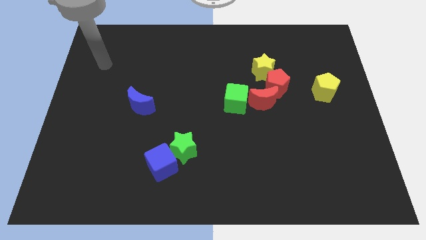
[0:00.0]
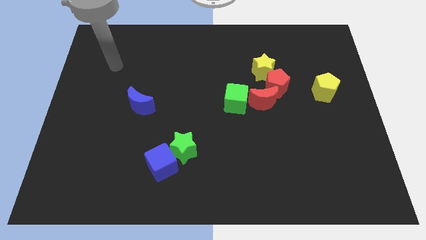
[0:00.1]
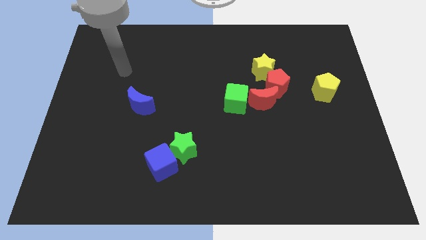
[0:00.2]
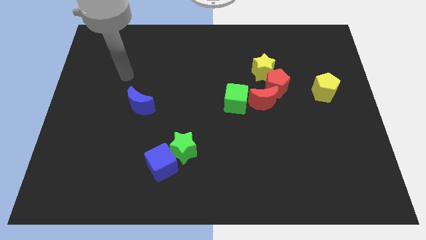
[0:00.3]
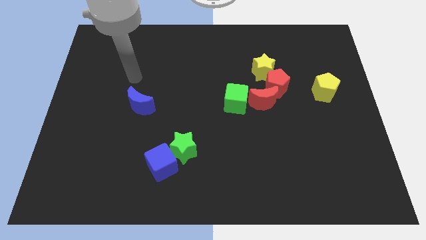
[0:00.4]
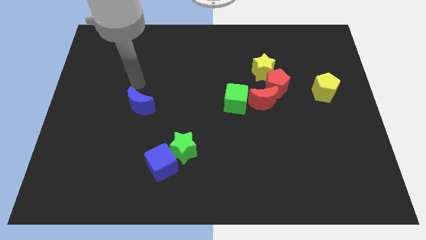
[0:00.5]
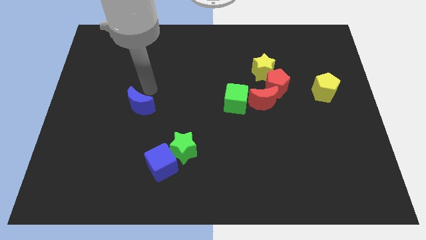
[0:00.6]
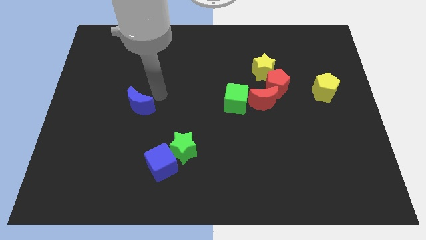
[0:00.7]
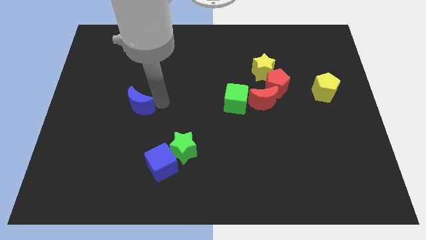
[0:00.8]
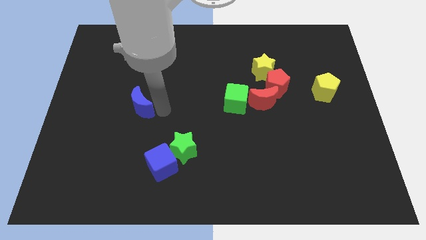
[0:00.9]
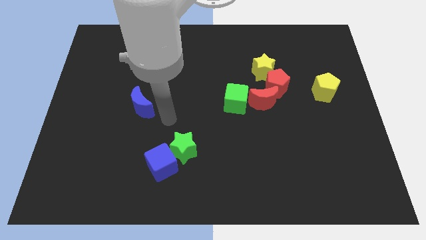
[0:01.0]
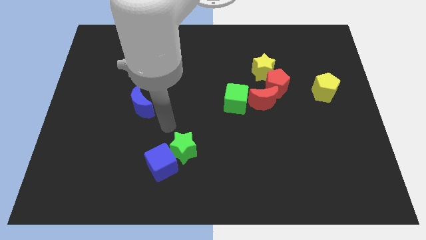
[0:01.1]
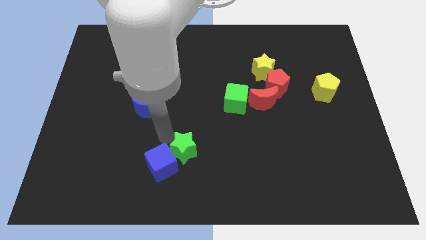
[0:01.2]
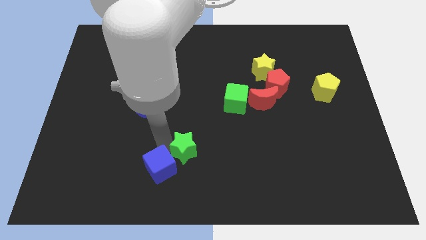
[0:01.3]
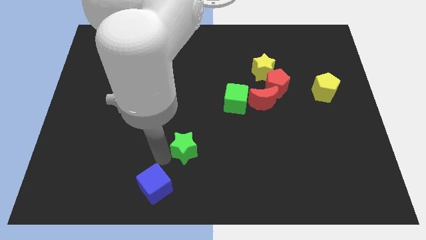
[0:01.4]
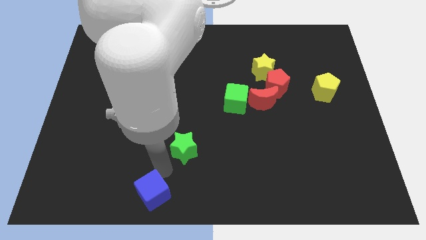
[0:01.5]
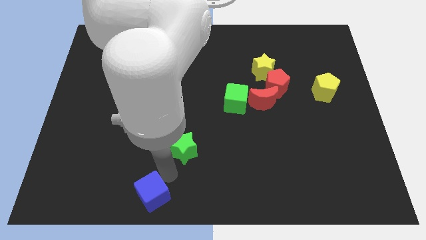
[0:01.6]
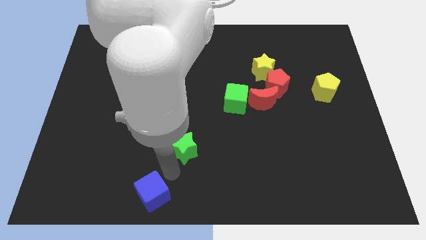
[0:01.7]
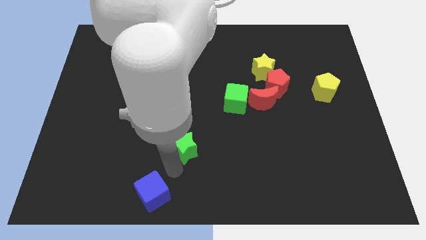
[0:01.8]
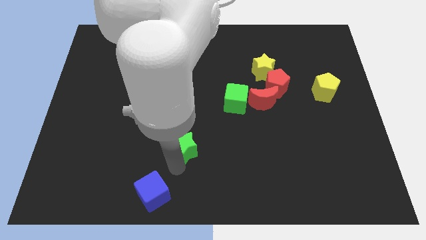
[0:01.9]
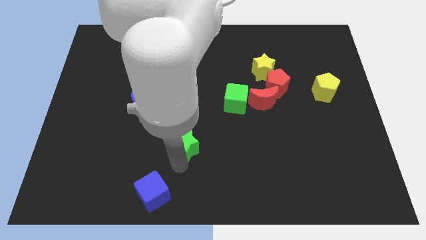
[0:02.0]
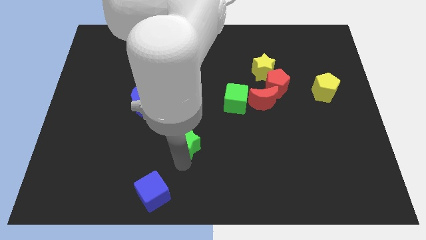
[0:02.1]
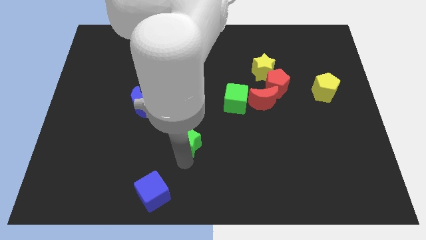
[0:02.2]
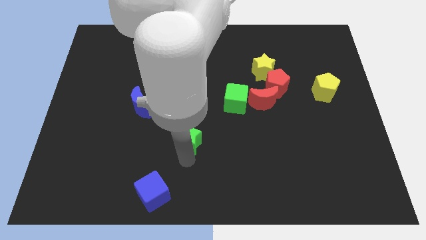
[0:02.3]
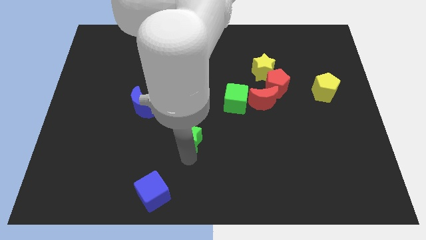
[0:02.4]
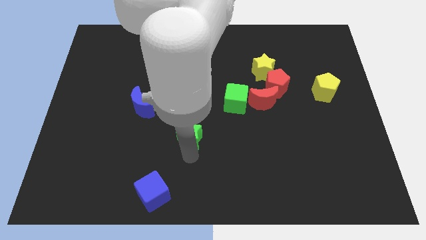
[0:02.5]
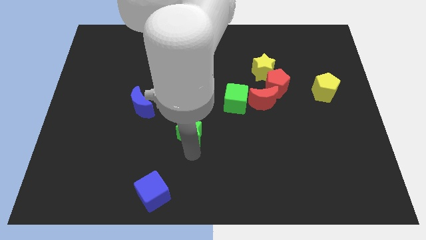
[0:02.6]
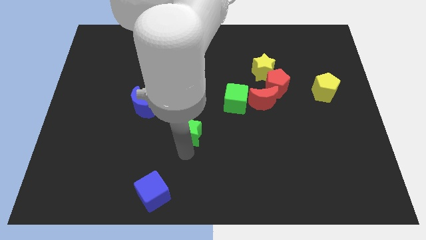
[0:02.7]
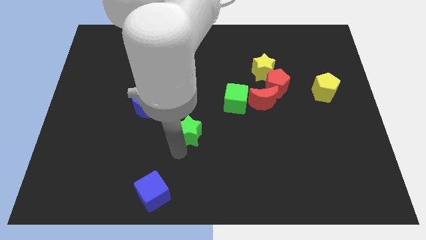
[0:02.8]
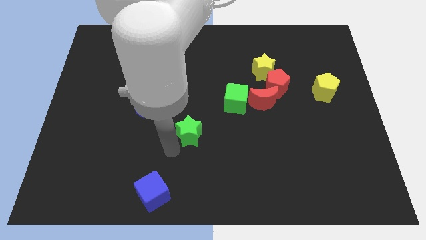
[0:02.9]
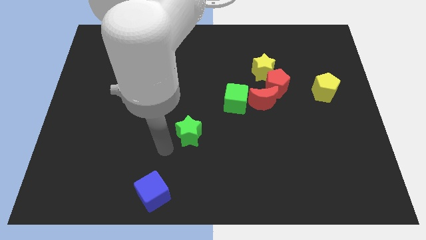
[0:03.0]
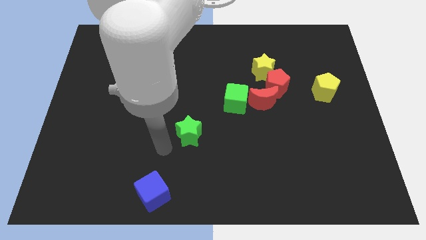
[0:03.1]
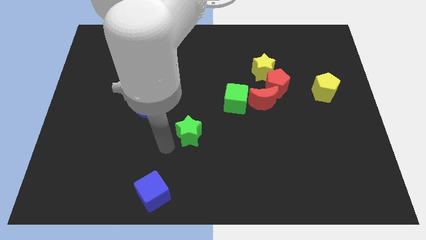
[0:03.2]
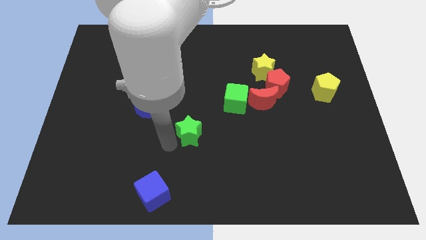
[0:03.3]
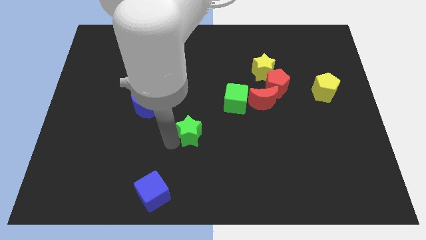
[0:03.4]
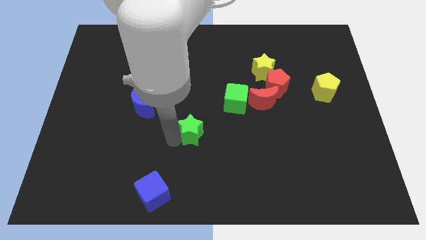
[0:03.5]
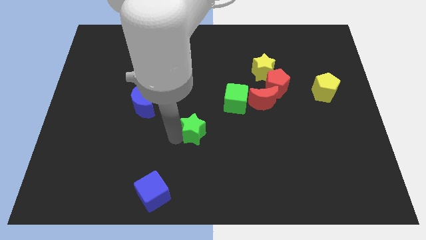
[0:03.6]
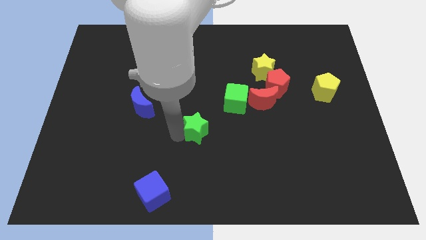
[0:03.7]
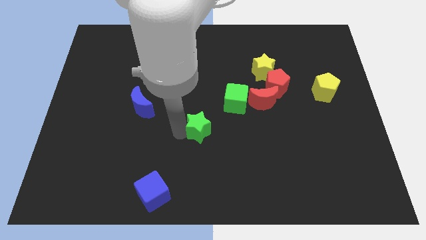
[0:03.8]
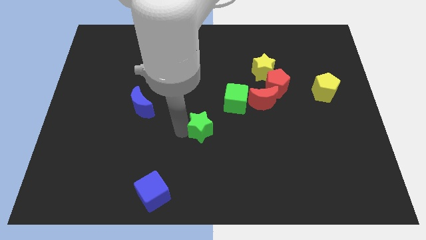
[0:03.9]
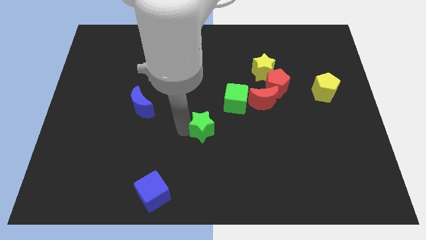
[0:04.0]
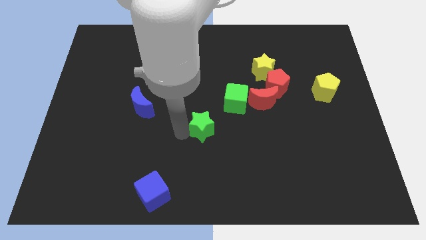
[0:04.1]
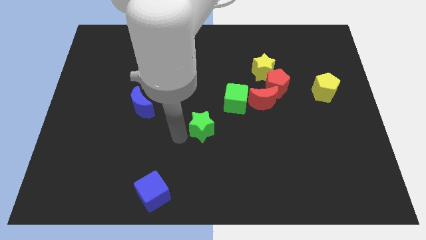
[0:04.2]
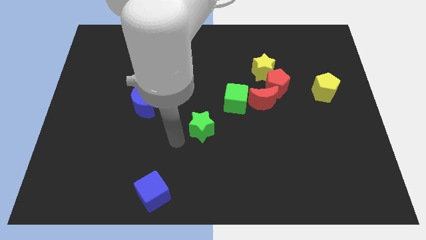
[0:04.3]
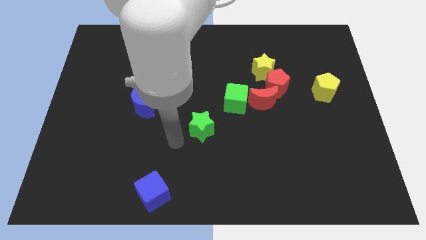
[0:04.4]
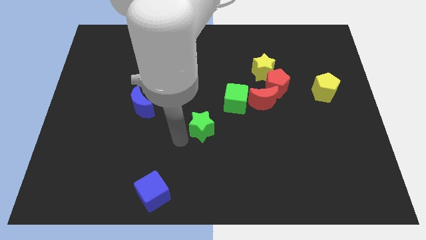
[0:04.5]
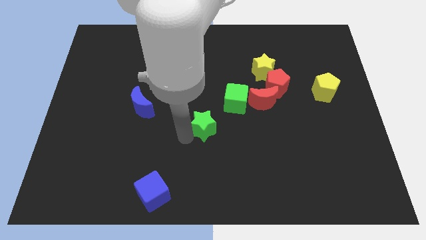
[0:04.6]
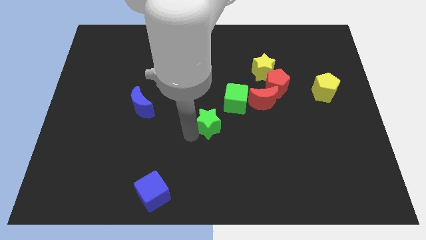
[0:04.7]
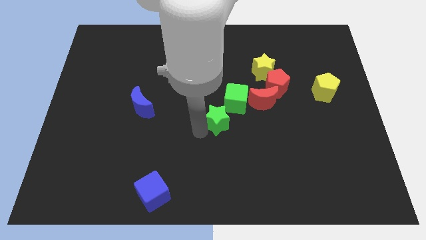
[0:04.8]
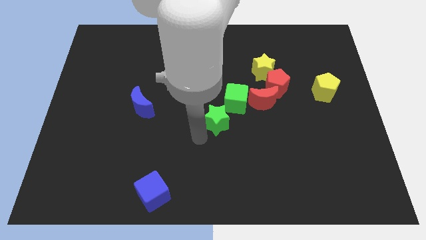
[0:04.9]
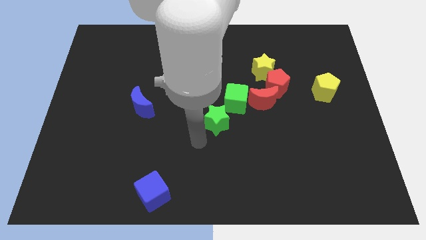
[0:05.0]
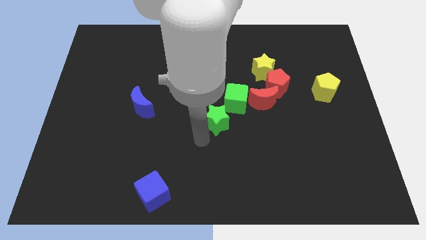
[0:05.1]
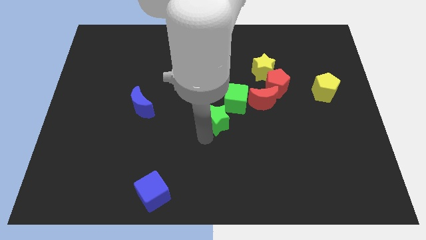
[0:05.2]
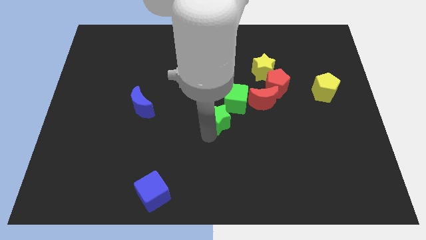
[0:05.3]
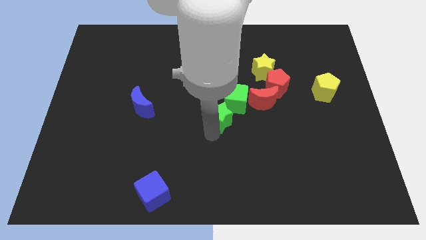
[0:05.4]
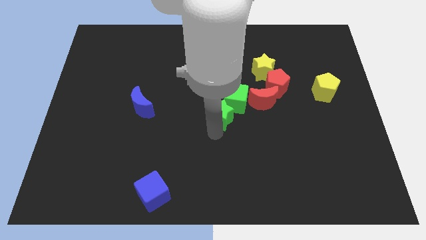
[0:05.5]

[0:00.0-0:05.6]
put the green star close to the green cube

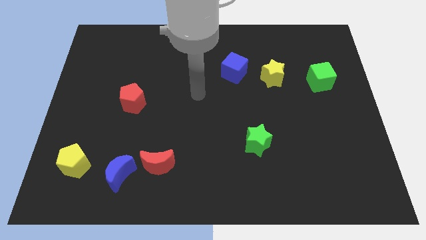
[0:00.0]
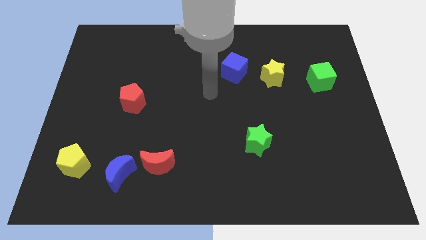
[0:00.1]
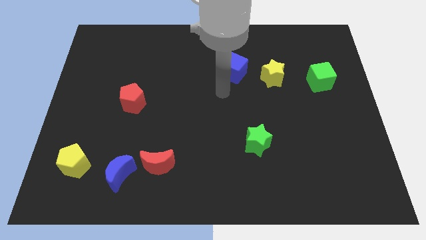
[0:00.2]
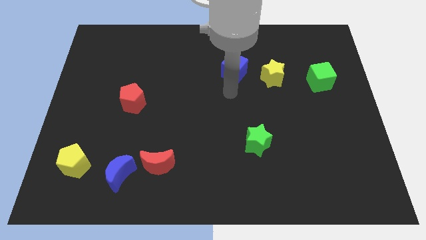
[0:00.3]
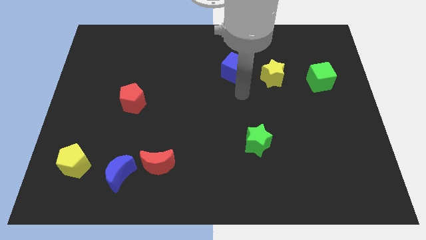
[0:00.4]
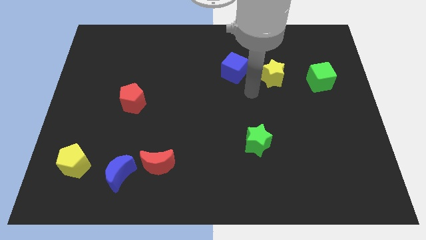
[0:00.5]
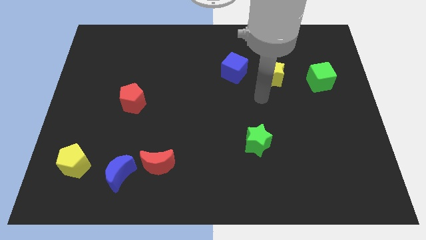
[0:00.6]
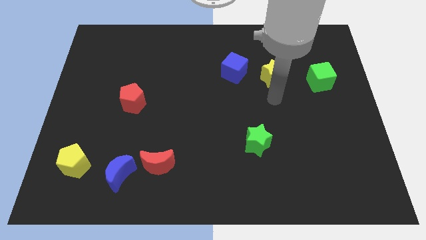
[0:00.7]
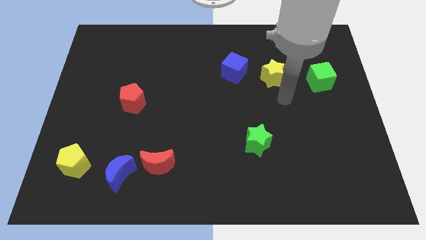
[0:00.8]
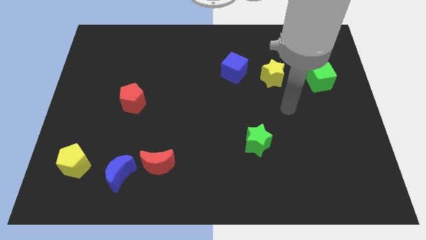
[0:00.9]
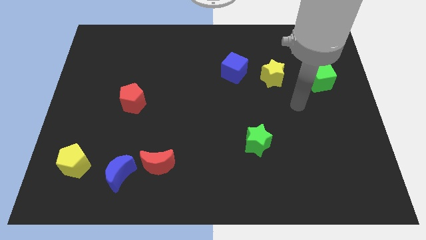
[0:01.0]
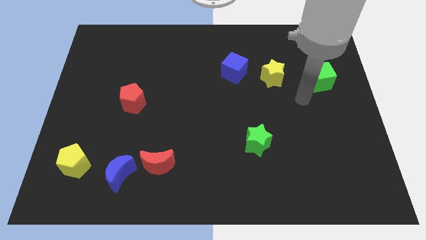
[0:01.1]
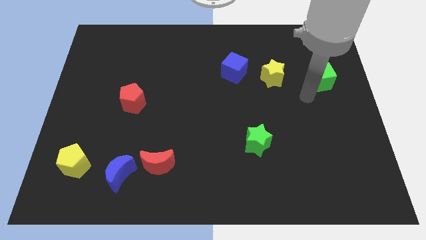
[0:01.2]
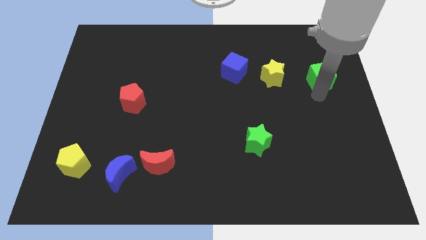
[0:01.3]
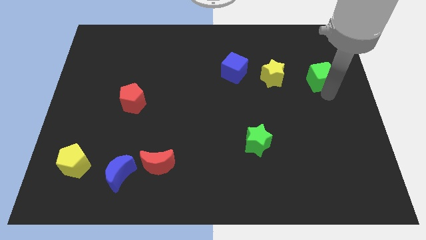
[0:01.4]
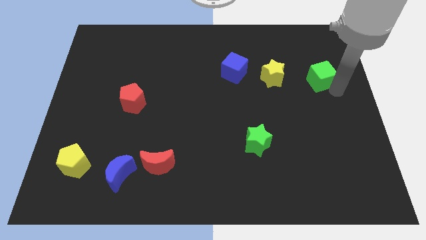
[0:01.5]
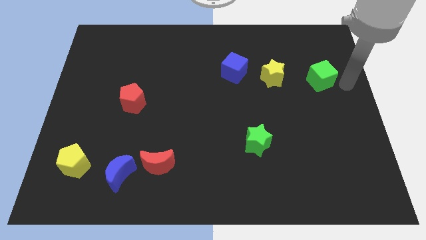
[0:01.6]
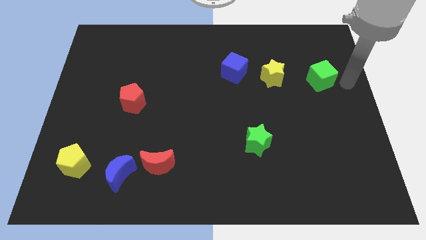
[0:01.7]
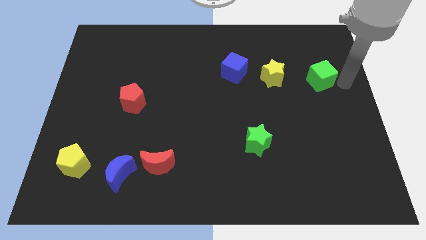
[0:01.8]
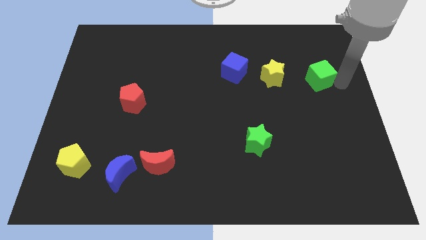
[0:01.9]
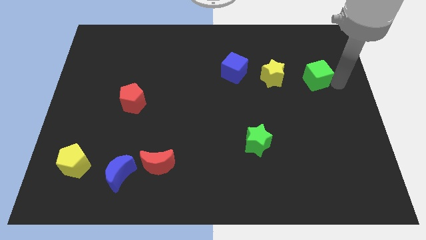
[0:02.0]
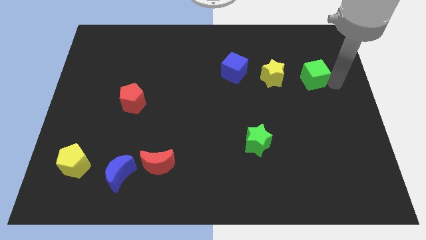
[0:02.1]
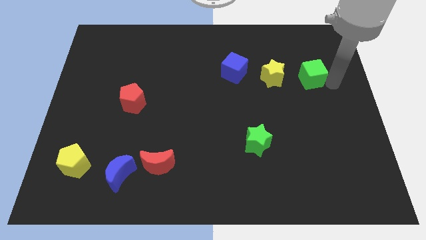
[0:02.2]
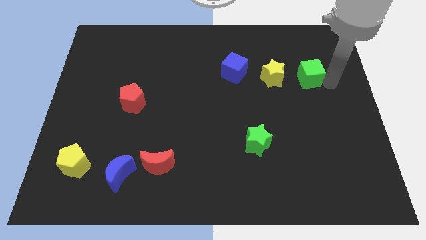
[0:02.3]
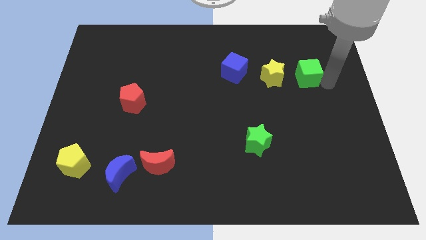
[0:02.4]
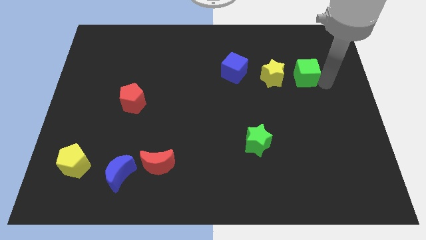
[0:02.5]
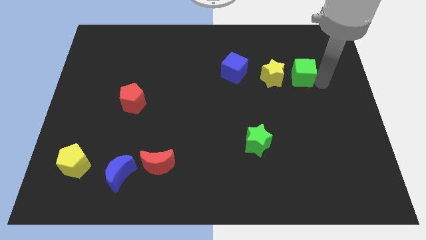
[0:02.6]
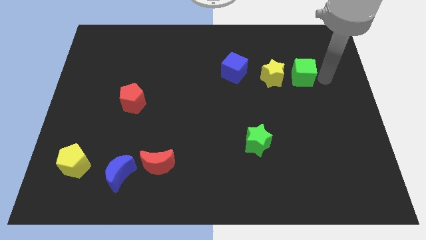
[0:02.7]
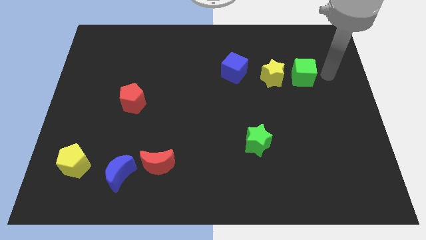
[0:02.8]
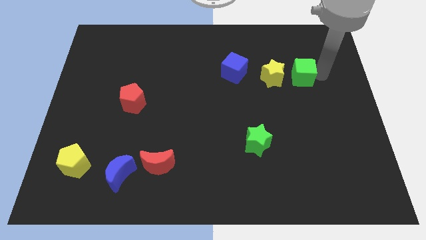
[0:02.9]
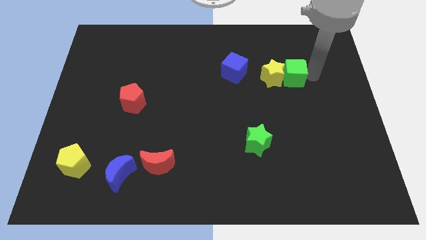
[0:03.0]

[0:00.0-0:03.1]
move the green cube towards the yellow star
